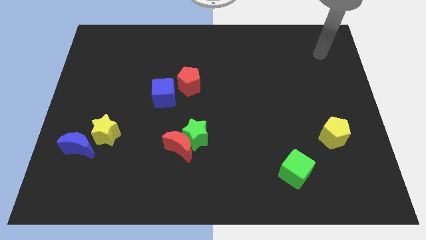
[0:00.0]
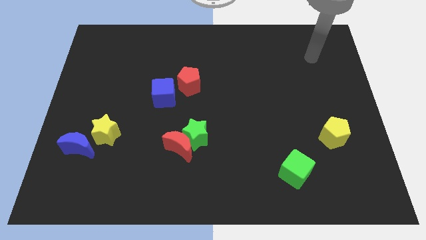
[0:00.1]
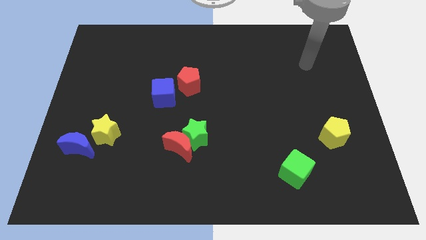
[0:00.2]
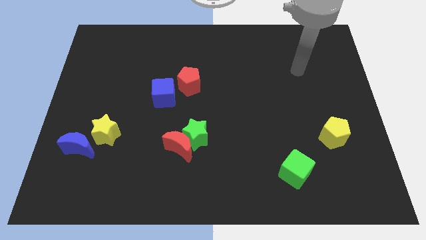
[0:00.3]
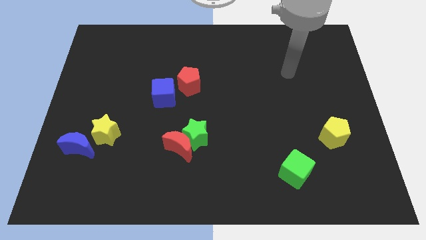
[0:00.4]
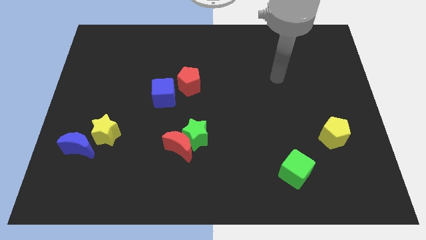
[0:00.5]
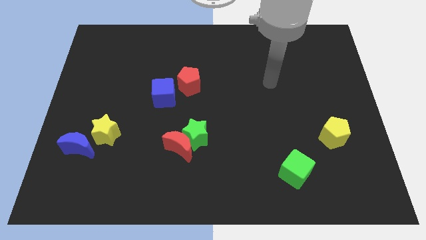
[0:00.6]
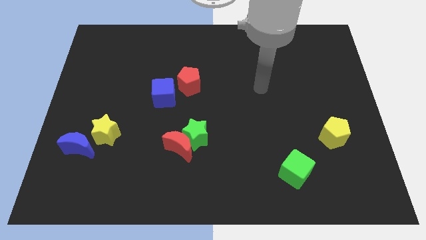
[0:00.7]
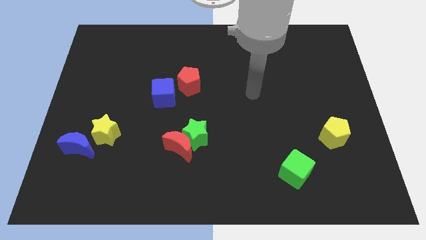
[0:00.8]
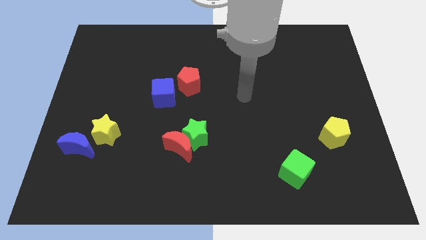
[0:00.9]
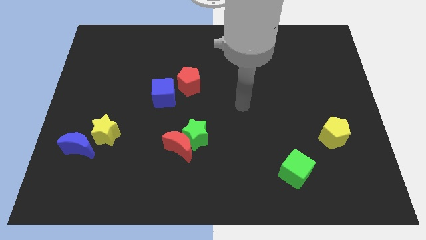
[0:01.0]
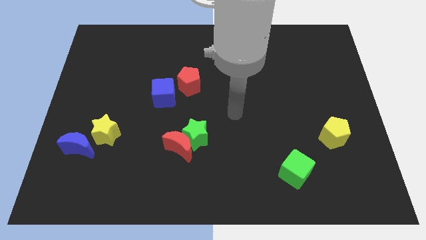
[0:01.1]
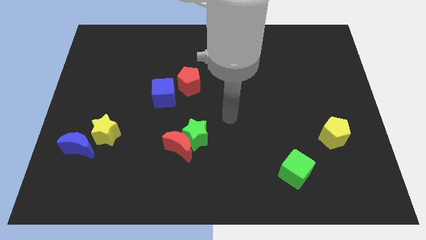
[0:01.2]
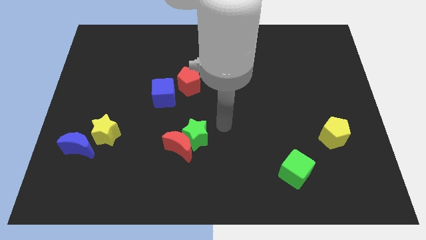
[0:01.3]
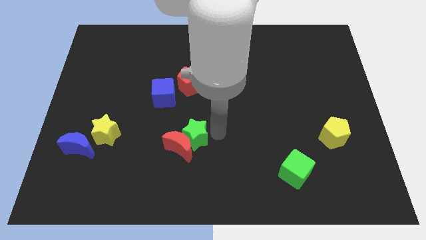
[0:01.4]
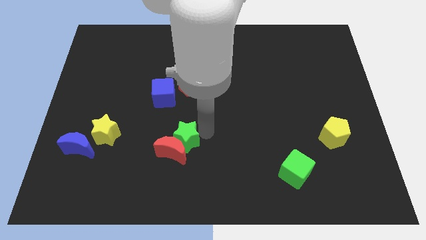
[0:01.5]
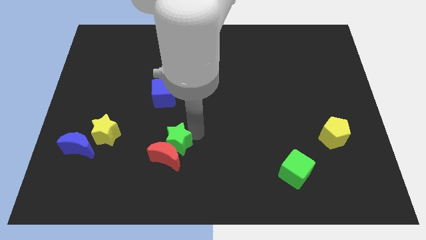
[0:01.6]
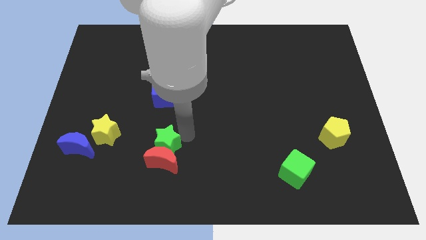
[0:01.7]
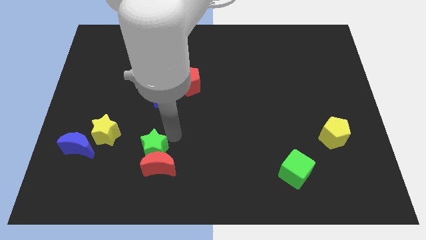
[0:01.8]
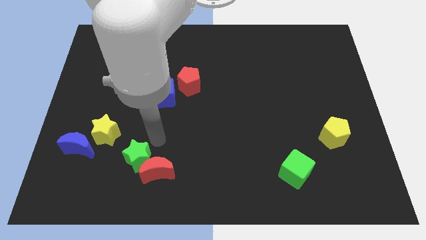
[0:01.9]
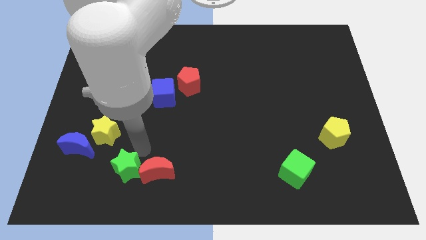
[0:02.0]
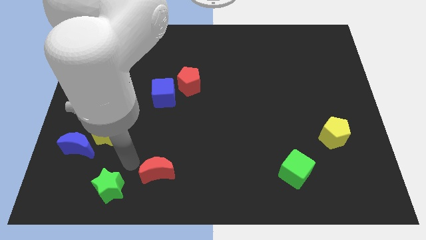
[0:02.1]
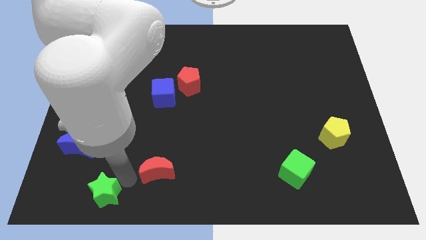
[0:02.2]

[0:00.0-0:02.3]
separate the red moon from the green star

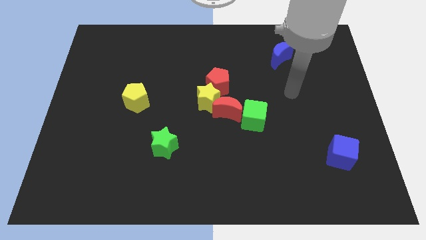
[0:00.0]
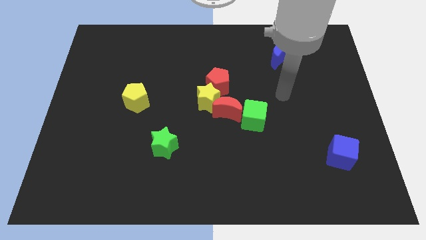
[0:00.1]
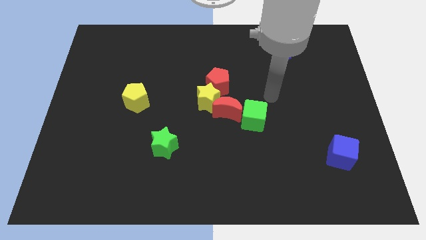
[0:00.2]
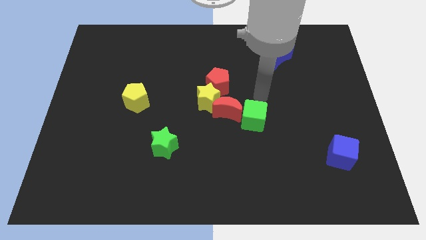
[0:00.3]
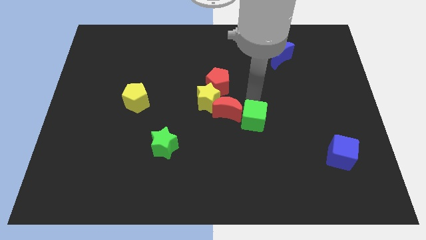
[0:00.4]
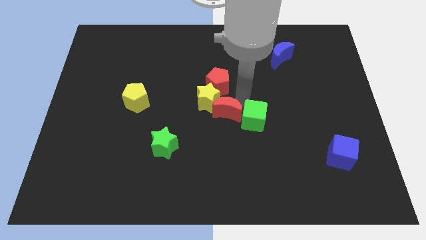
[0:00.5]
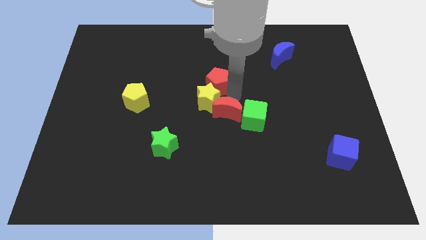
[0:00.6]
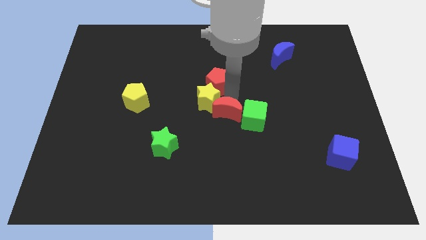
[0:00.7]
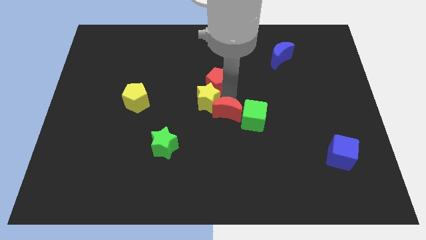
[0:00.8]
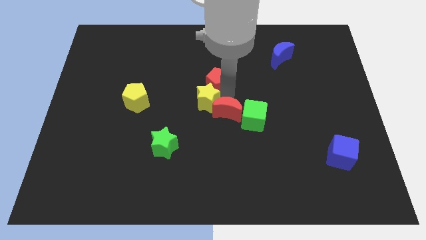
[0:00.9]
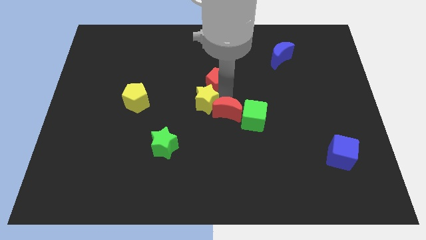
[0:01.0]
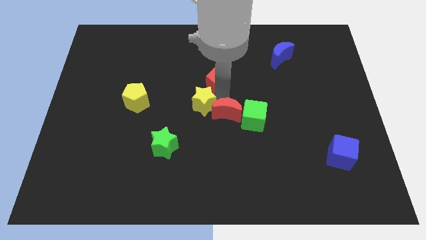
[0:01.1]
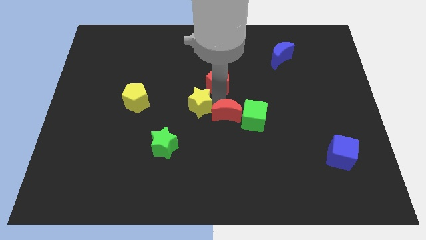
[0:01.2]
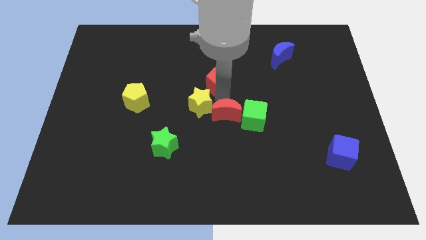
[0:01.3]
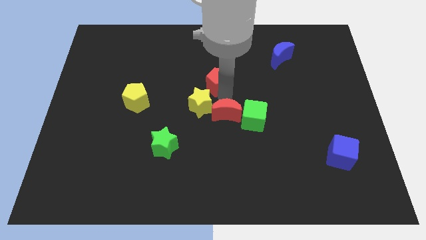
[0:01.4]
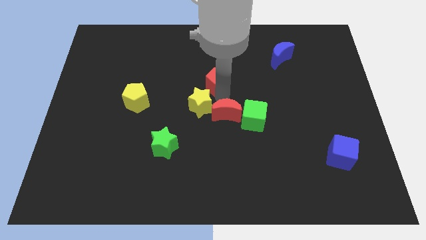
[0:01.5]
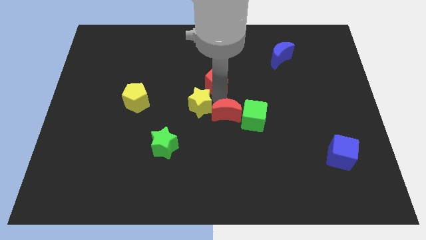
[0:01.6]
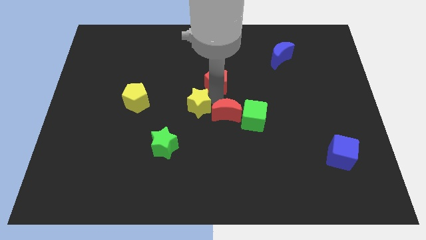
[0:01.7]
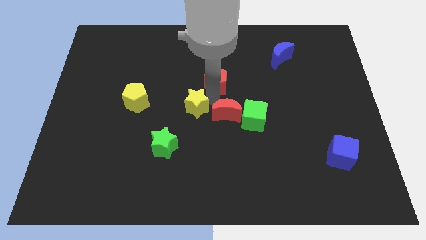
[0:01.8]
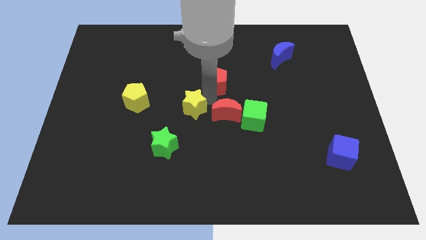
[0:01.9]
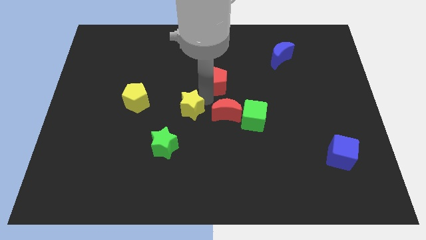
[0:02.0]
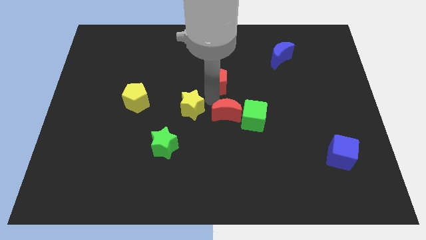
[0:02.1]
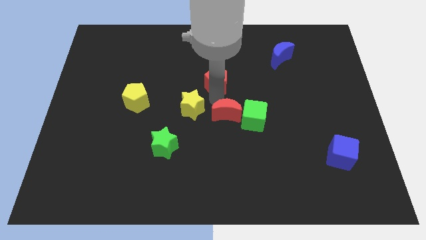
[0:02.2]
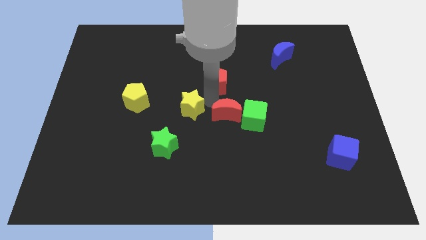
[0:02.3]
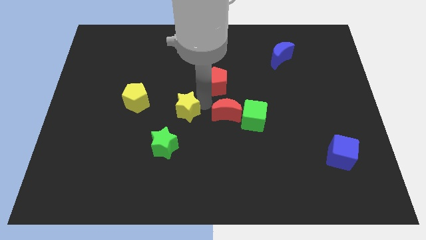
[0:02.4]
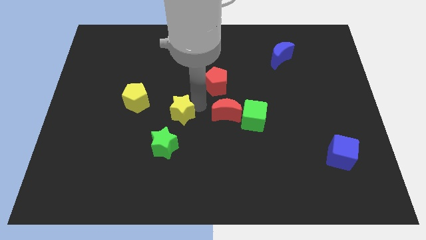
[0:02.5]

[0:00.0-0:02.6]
separate the yellow star from the red moon and red pentagon

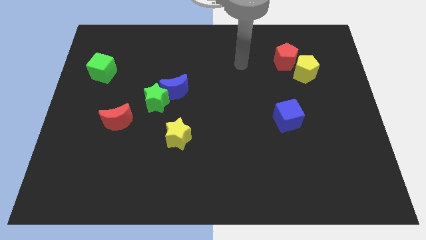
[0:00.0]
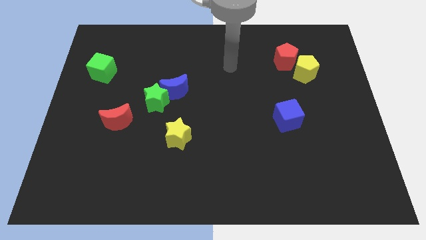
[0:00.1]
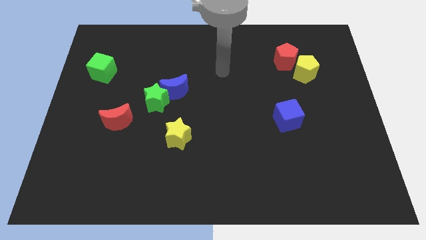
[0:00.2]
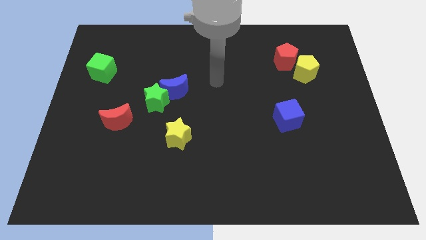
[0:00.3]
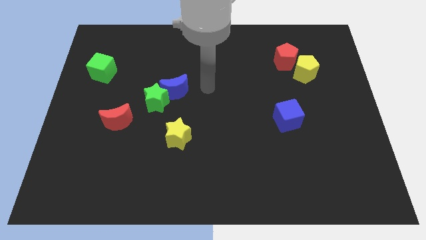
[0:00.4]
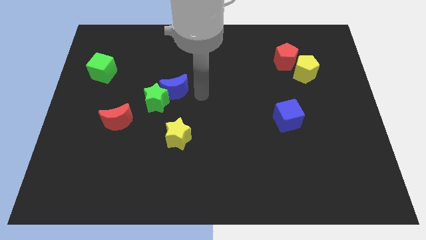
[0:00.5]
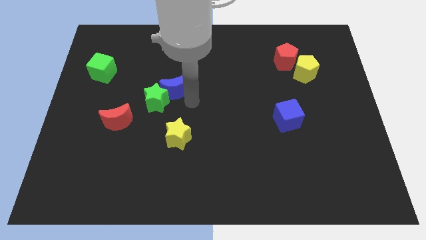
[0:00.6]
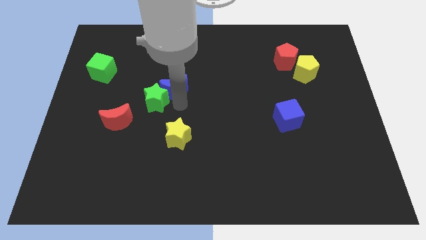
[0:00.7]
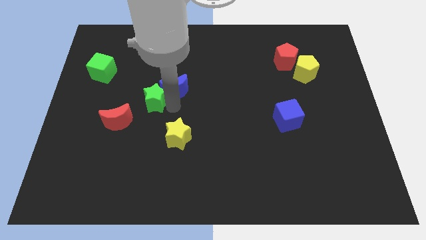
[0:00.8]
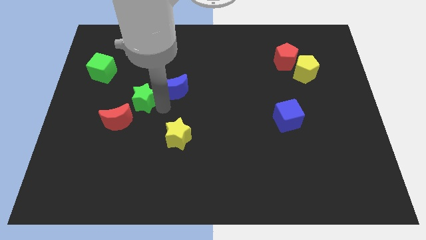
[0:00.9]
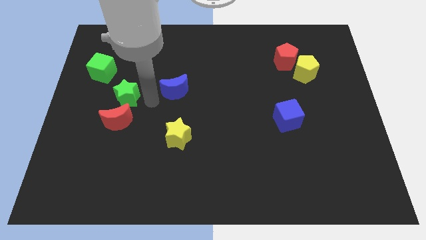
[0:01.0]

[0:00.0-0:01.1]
separate the blue moon from the green star

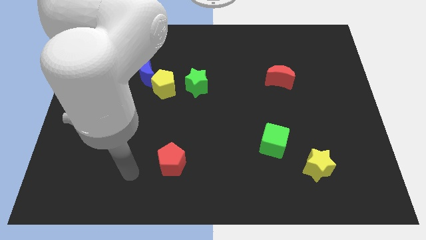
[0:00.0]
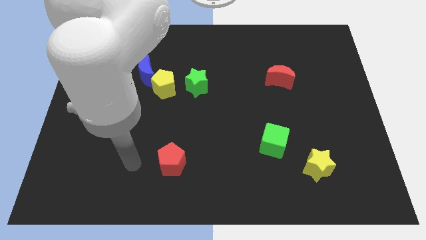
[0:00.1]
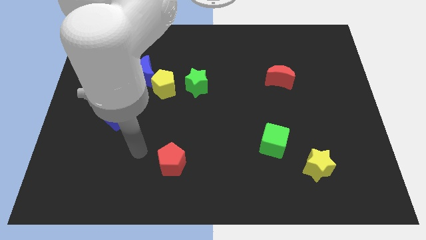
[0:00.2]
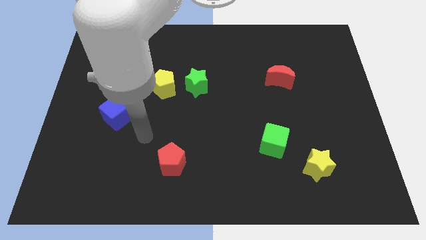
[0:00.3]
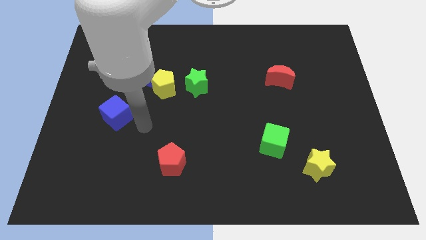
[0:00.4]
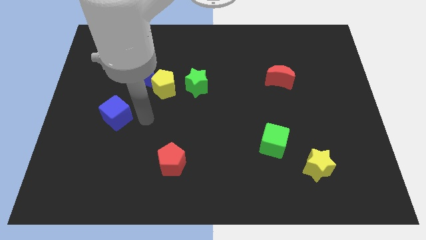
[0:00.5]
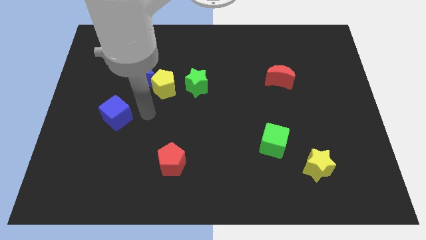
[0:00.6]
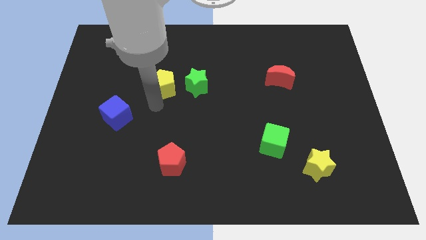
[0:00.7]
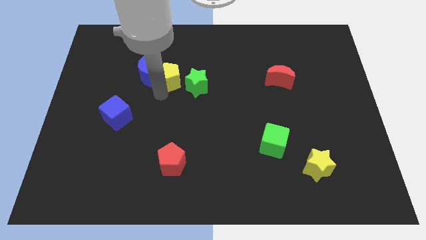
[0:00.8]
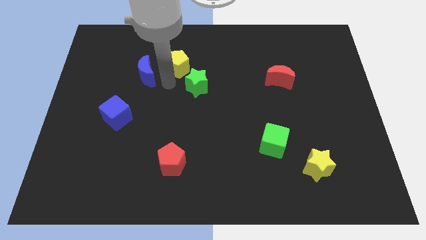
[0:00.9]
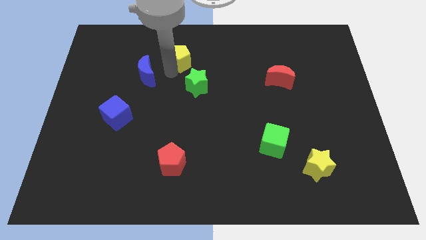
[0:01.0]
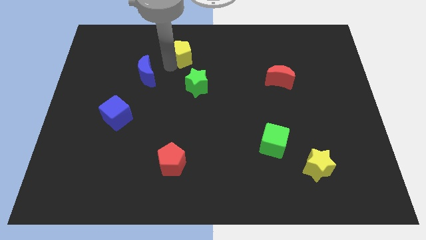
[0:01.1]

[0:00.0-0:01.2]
move the blue moon away from the yellow pentagon

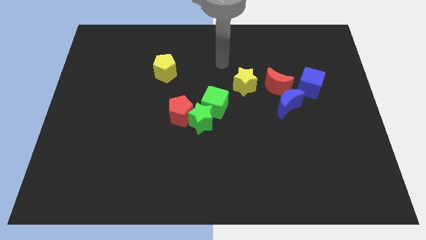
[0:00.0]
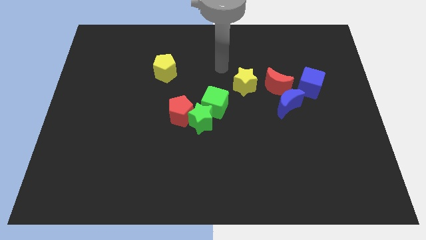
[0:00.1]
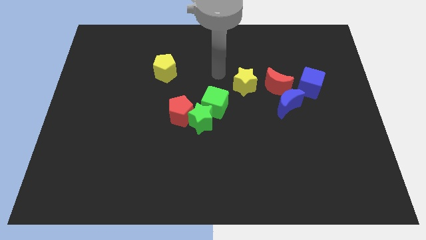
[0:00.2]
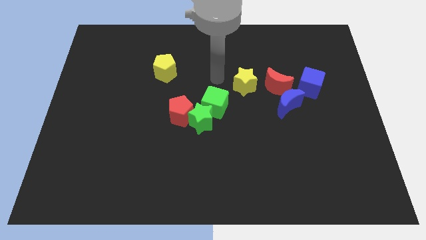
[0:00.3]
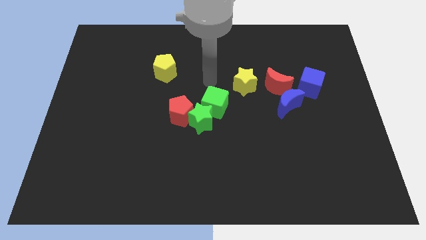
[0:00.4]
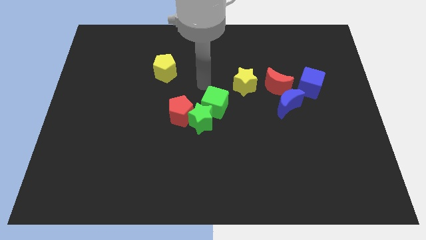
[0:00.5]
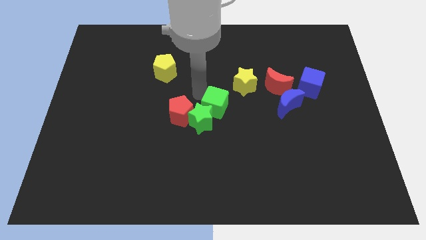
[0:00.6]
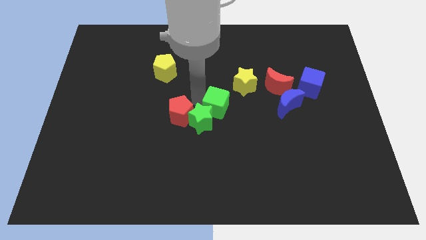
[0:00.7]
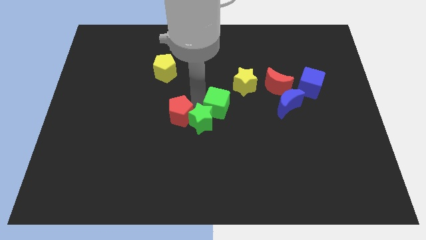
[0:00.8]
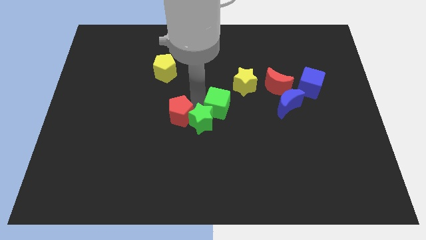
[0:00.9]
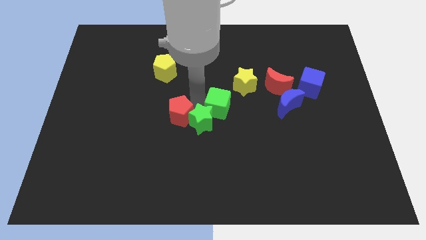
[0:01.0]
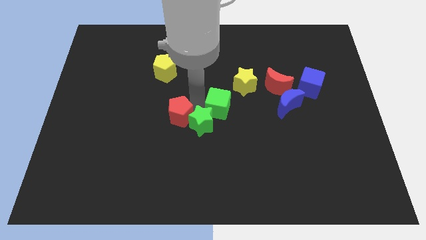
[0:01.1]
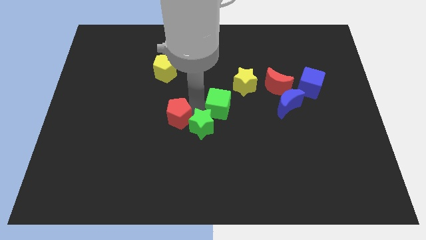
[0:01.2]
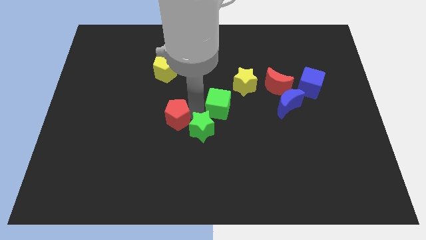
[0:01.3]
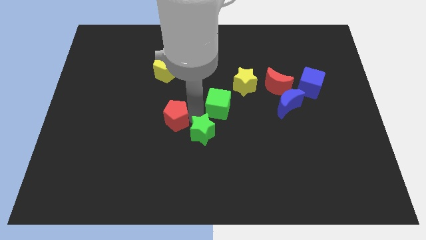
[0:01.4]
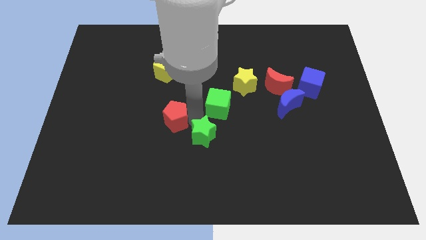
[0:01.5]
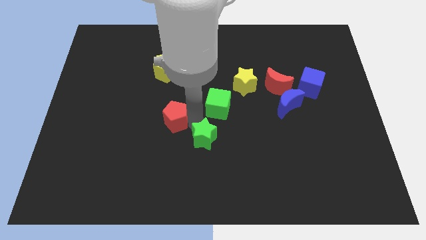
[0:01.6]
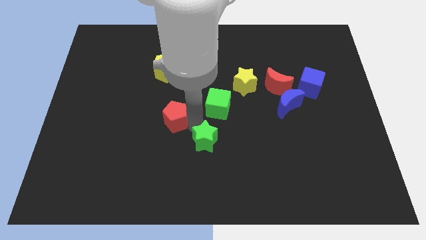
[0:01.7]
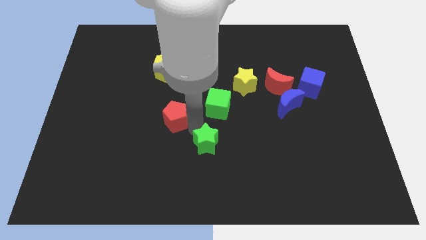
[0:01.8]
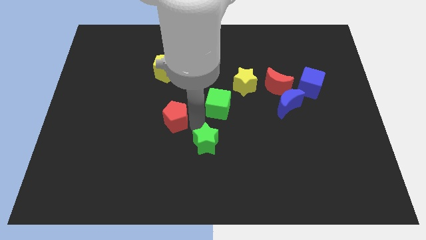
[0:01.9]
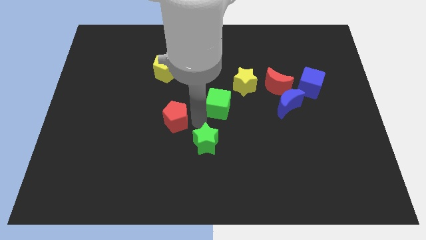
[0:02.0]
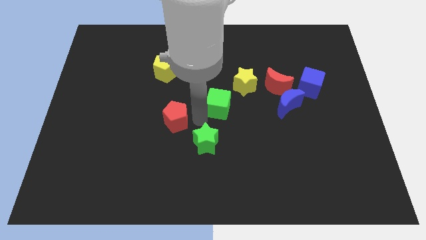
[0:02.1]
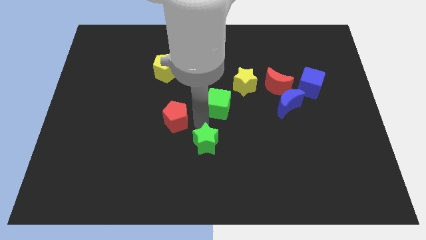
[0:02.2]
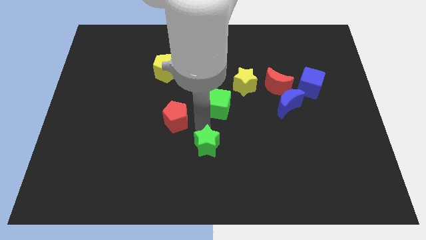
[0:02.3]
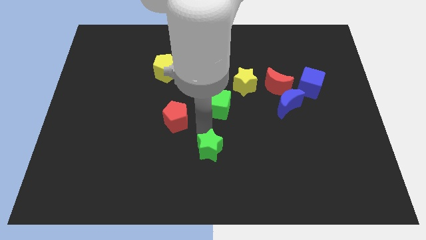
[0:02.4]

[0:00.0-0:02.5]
move the green star away from the red pentagon and green cube
